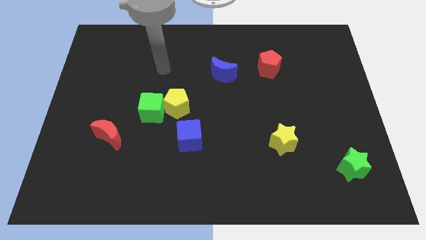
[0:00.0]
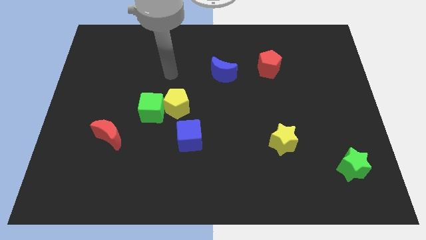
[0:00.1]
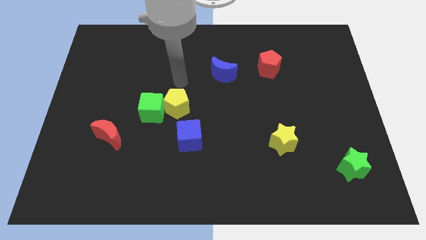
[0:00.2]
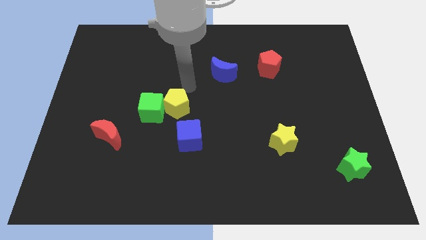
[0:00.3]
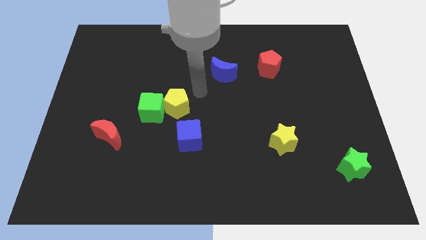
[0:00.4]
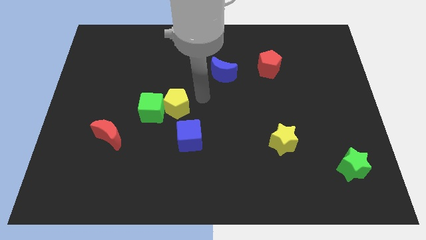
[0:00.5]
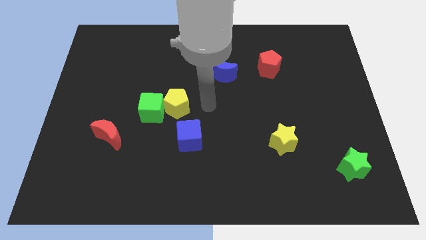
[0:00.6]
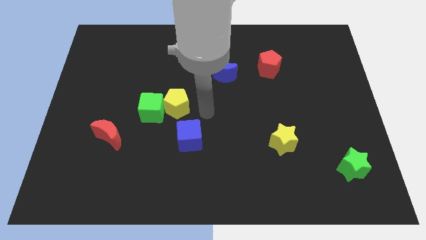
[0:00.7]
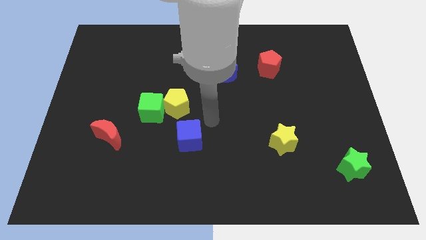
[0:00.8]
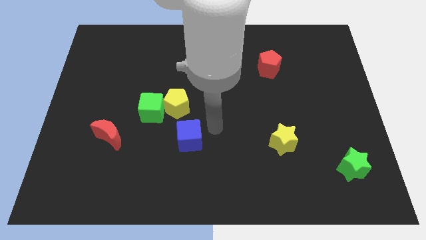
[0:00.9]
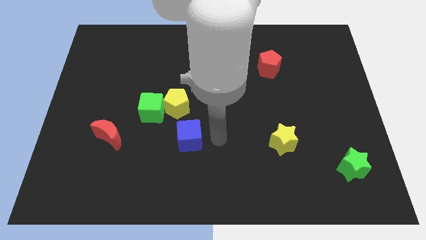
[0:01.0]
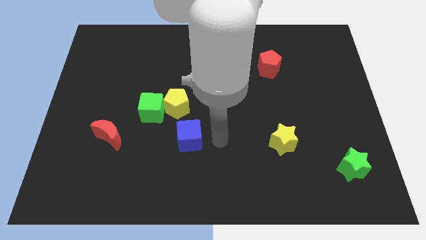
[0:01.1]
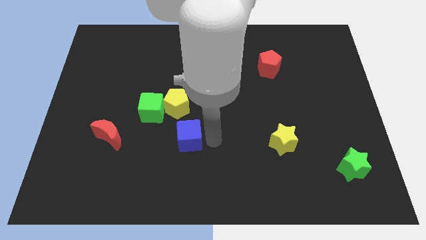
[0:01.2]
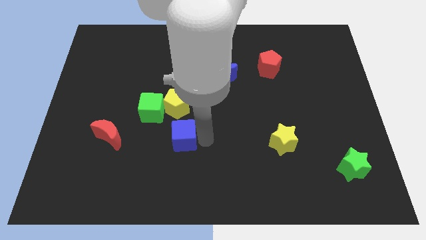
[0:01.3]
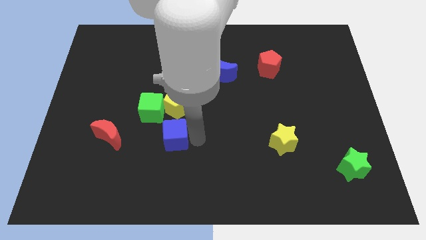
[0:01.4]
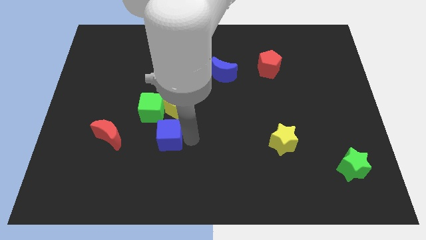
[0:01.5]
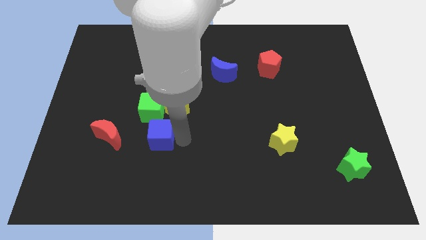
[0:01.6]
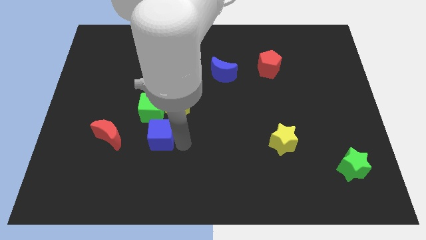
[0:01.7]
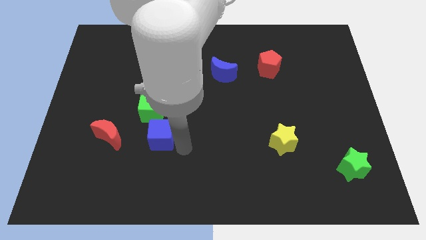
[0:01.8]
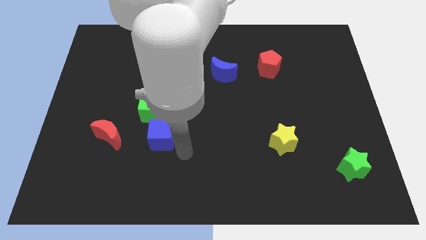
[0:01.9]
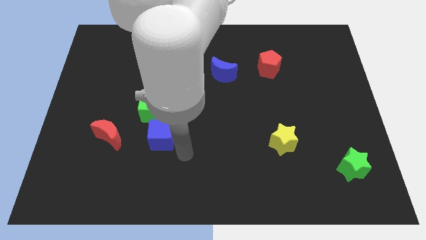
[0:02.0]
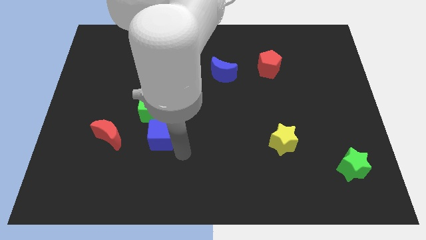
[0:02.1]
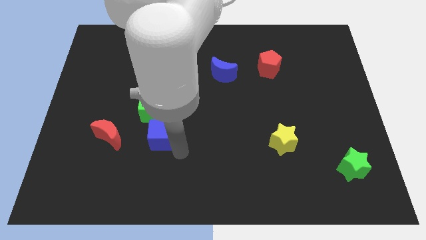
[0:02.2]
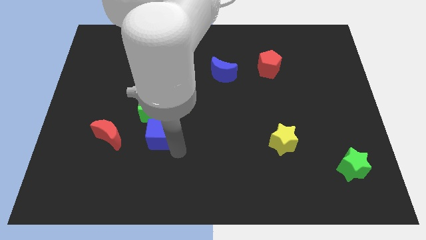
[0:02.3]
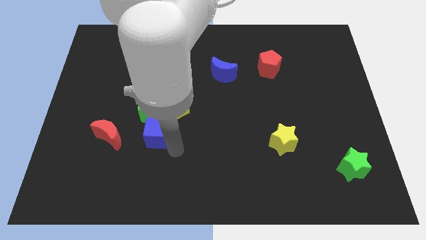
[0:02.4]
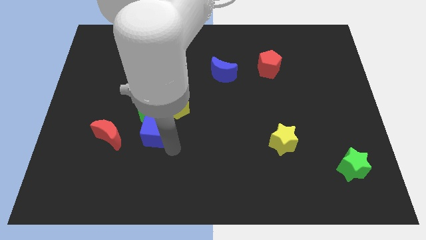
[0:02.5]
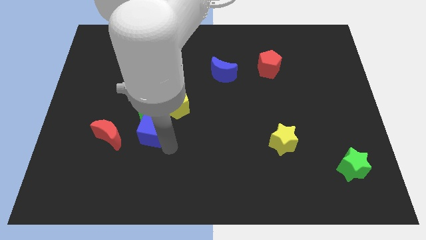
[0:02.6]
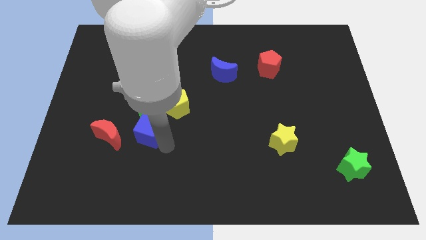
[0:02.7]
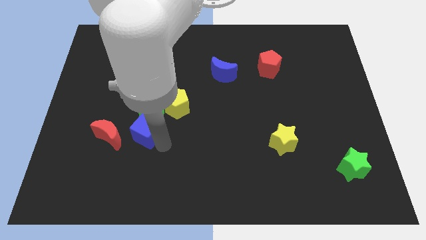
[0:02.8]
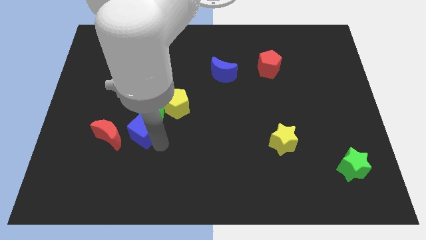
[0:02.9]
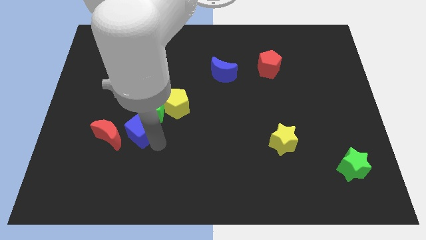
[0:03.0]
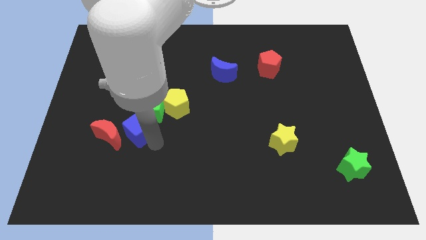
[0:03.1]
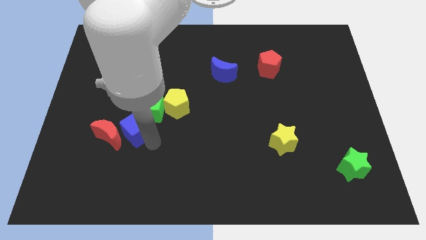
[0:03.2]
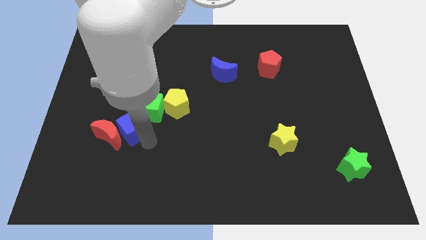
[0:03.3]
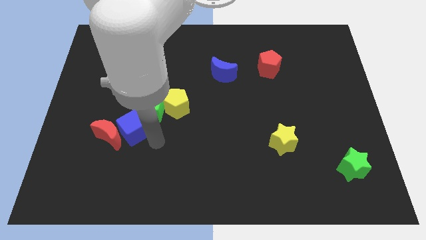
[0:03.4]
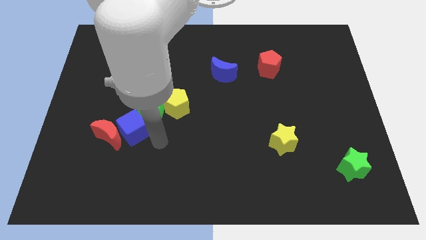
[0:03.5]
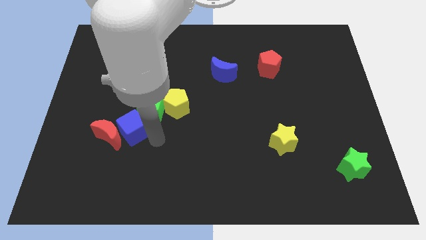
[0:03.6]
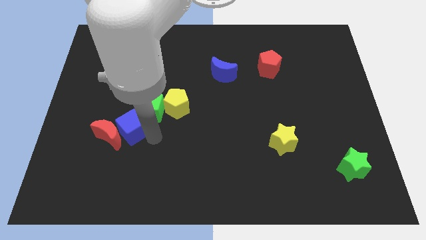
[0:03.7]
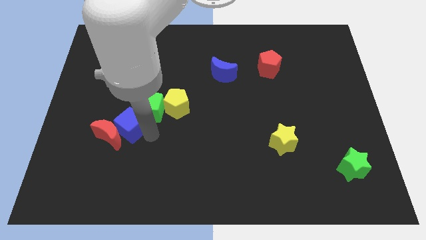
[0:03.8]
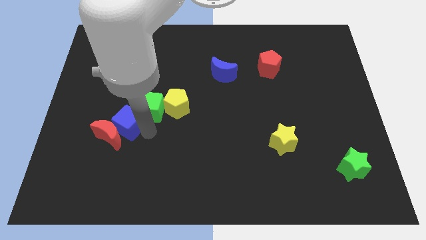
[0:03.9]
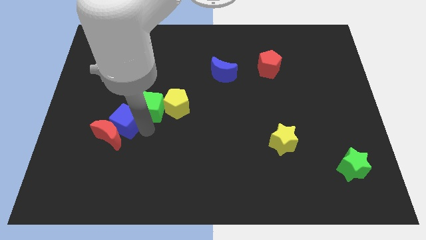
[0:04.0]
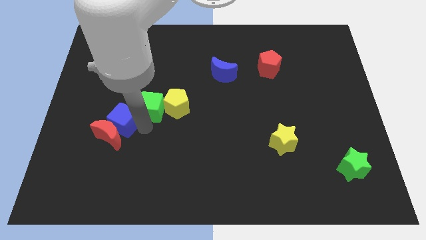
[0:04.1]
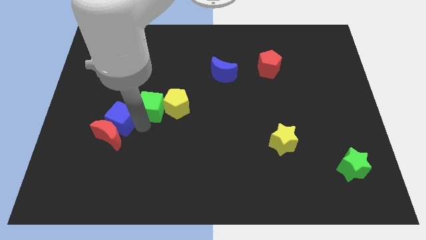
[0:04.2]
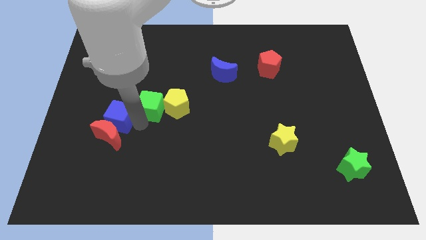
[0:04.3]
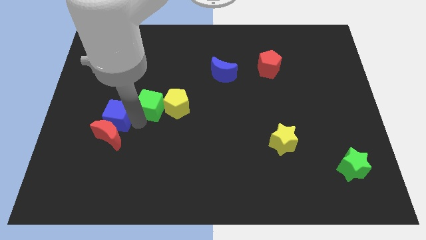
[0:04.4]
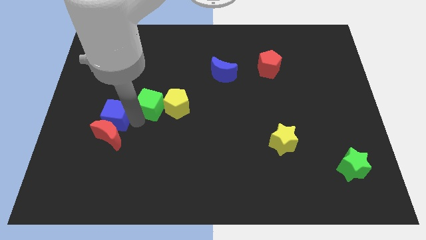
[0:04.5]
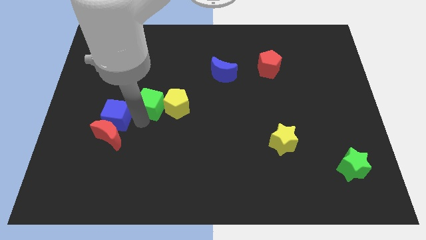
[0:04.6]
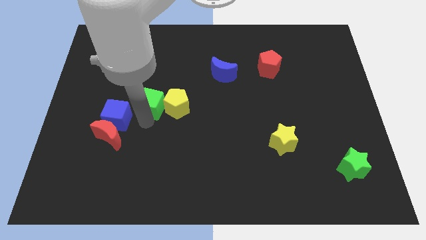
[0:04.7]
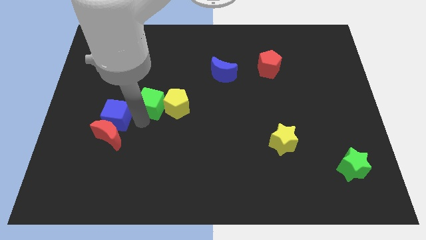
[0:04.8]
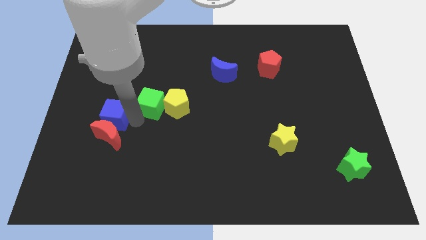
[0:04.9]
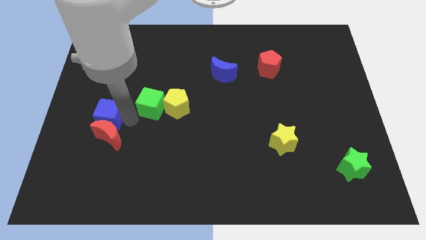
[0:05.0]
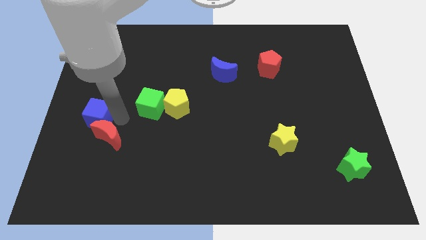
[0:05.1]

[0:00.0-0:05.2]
slide the blue cube to the left side of the board

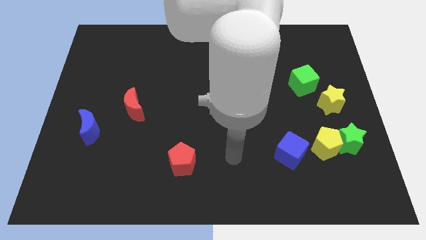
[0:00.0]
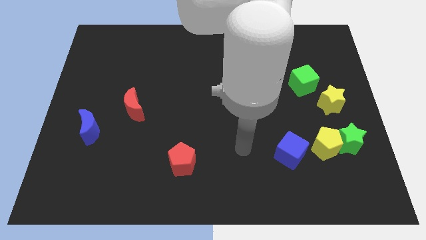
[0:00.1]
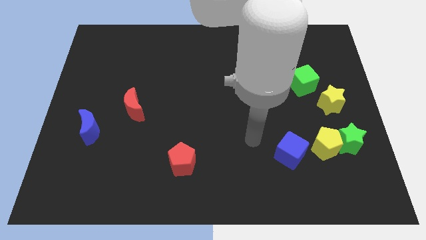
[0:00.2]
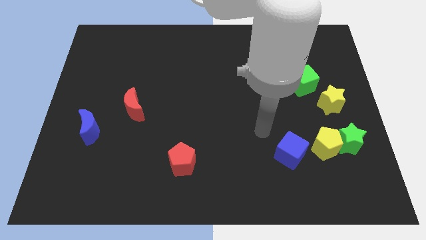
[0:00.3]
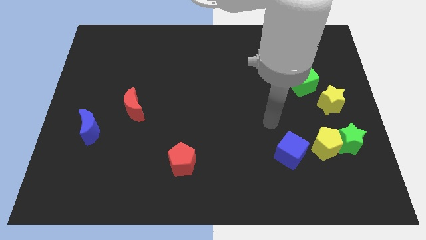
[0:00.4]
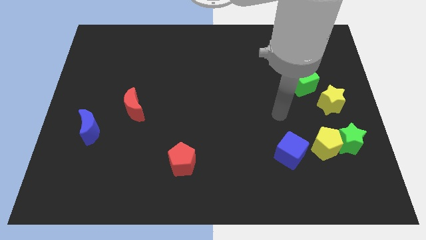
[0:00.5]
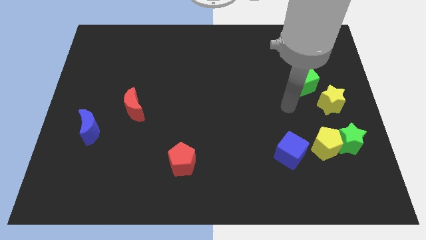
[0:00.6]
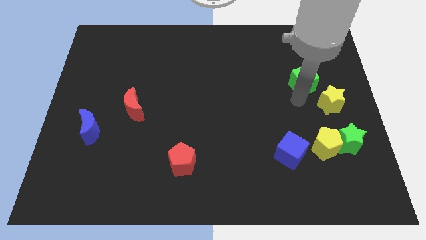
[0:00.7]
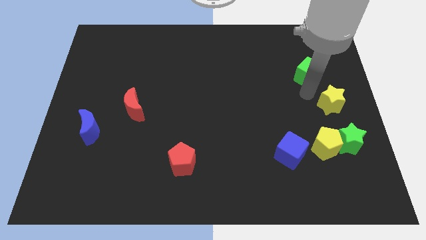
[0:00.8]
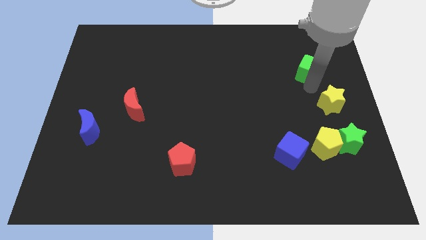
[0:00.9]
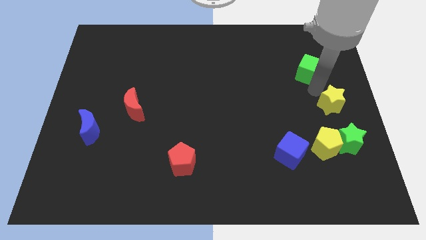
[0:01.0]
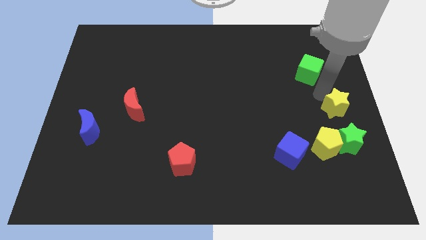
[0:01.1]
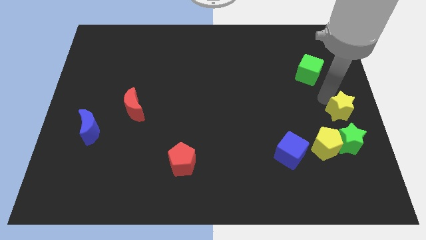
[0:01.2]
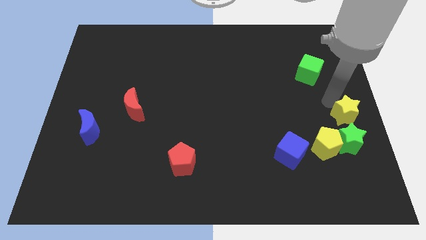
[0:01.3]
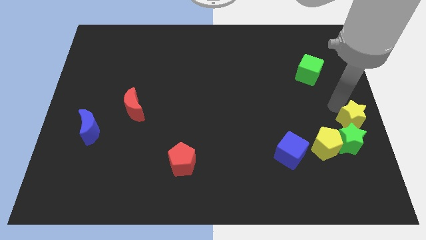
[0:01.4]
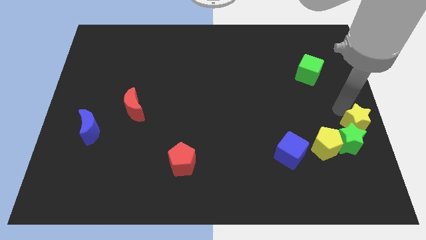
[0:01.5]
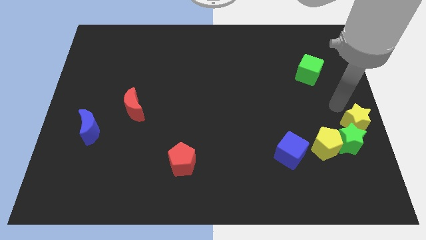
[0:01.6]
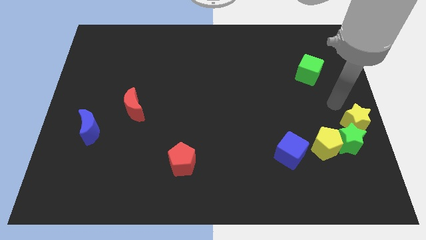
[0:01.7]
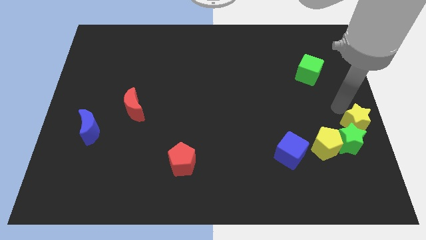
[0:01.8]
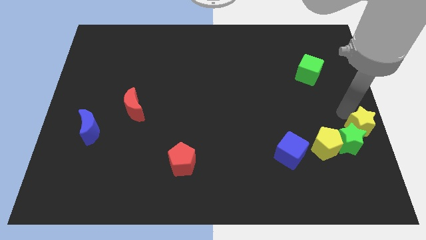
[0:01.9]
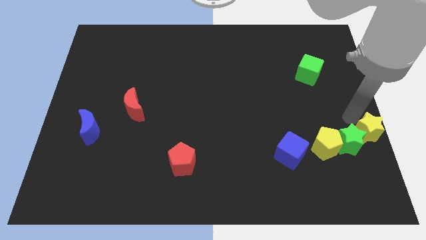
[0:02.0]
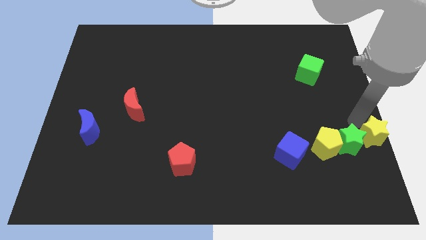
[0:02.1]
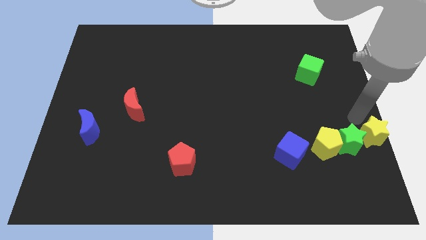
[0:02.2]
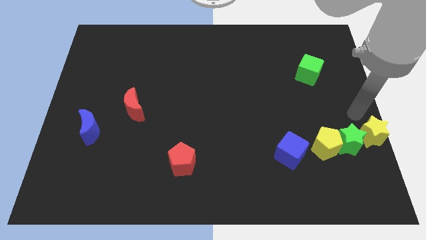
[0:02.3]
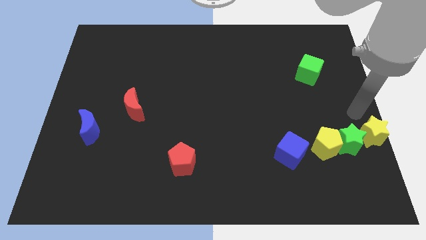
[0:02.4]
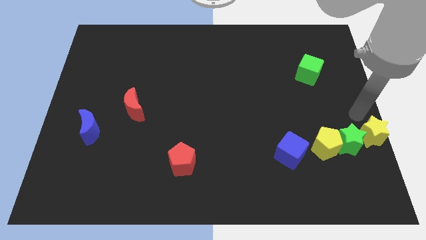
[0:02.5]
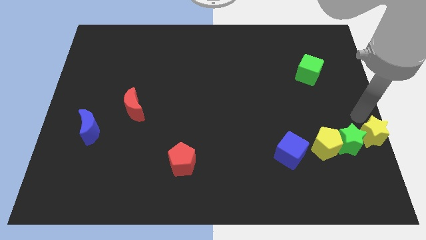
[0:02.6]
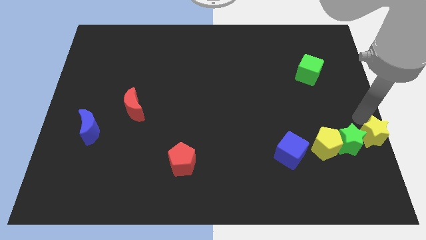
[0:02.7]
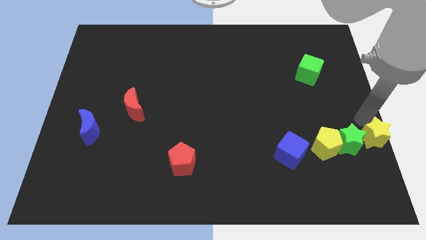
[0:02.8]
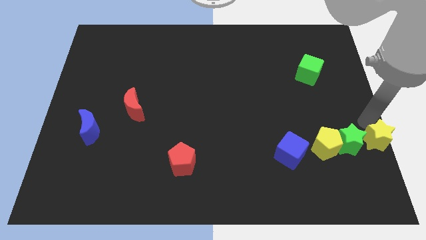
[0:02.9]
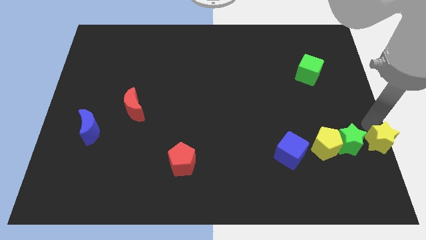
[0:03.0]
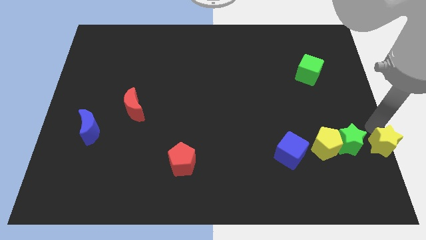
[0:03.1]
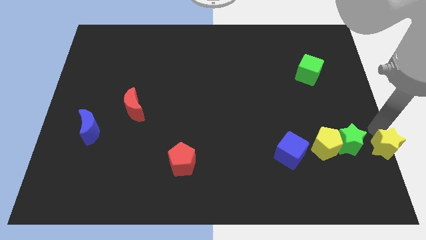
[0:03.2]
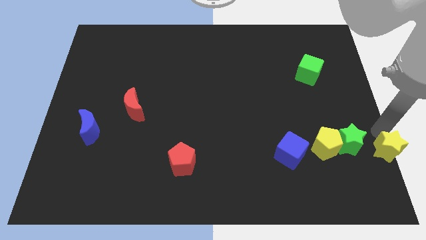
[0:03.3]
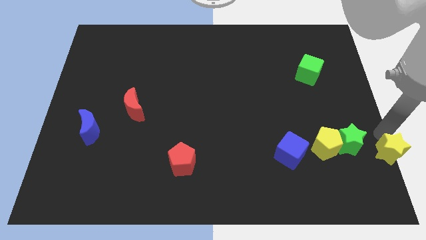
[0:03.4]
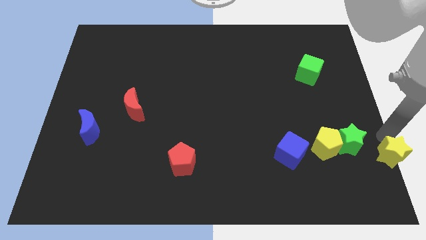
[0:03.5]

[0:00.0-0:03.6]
slide the yellow star to the lower right corner
